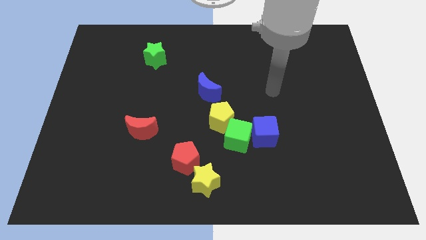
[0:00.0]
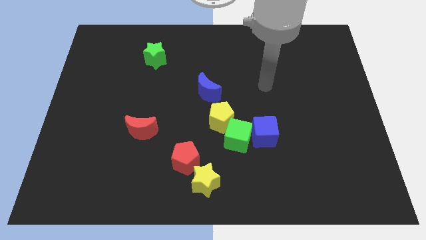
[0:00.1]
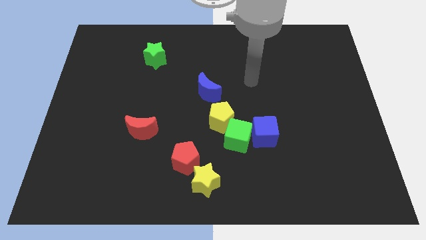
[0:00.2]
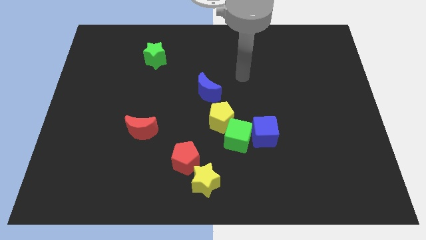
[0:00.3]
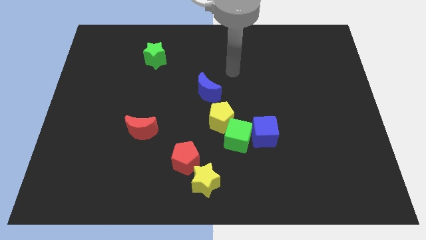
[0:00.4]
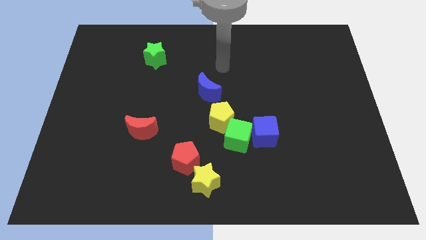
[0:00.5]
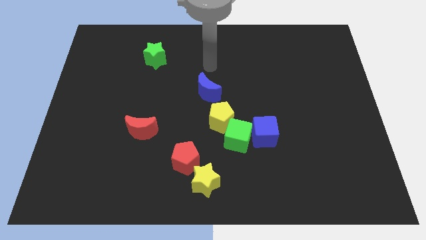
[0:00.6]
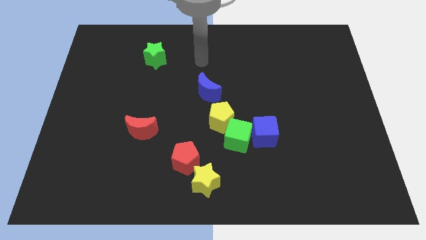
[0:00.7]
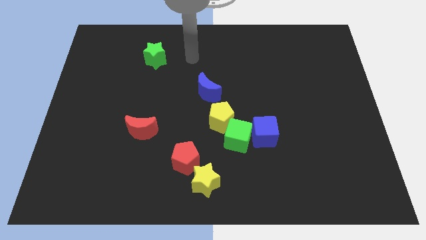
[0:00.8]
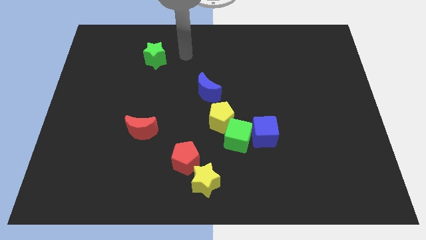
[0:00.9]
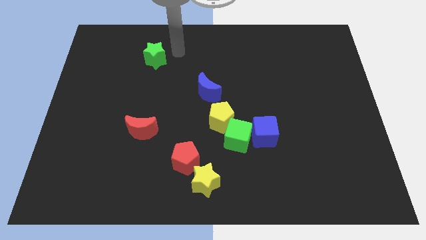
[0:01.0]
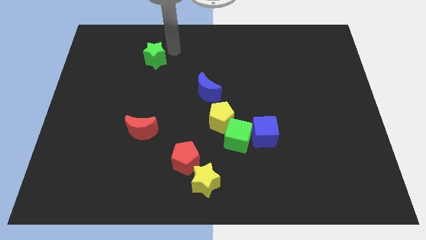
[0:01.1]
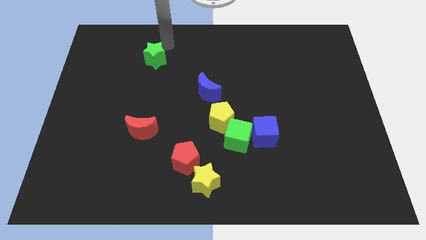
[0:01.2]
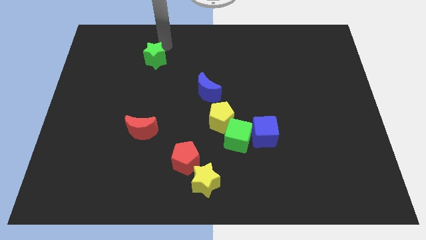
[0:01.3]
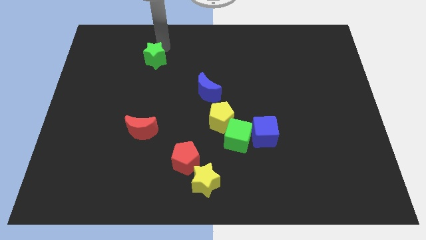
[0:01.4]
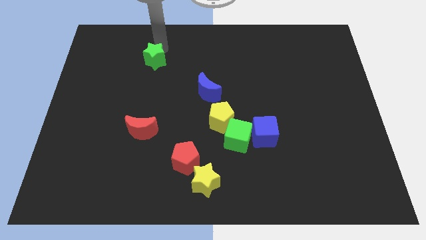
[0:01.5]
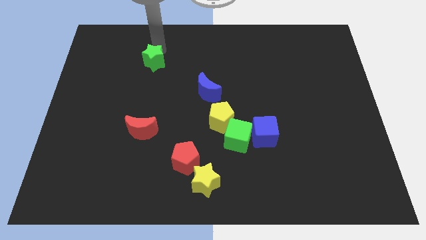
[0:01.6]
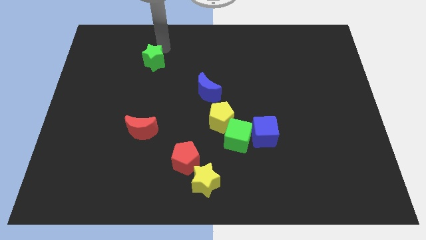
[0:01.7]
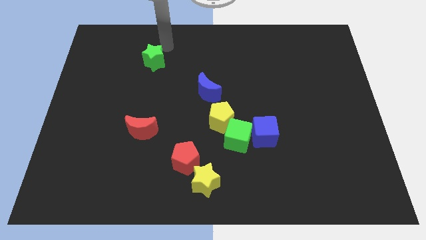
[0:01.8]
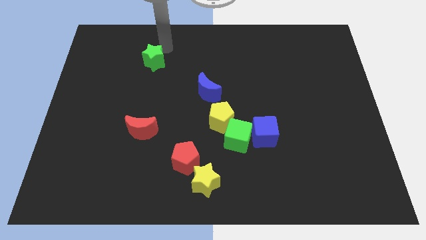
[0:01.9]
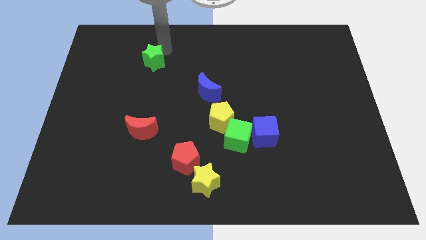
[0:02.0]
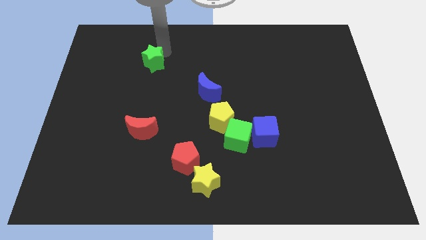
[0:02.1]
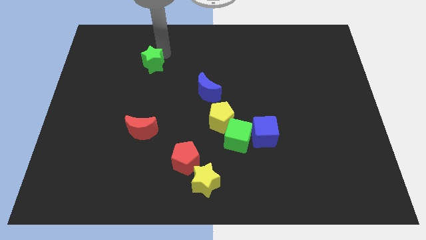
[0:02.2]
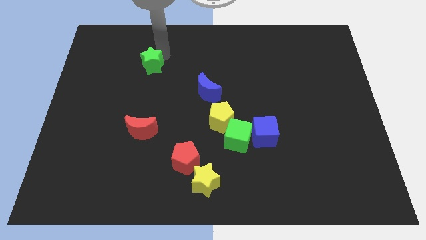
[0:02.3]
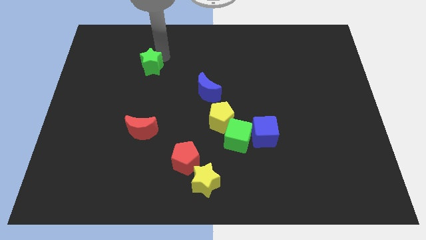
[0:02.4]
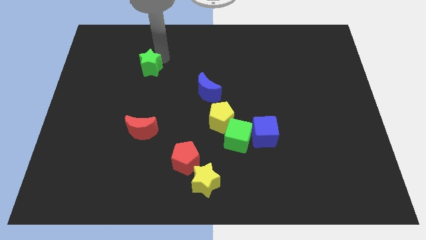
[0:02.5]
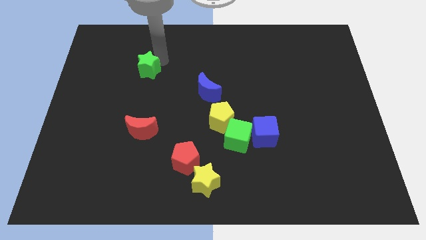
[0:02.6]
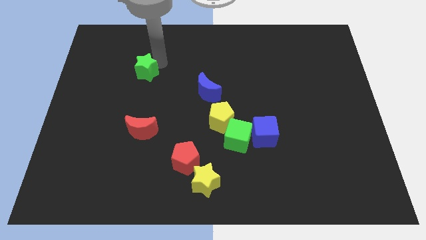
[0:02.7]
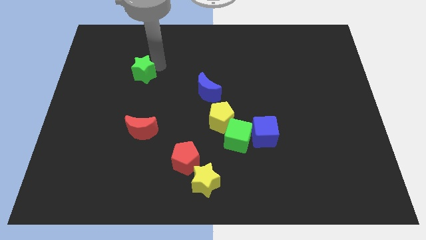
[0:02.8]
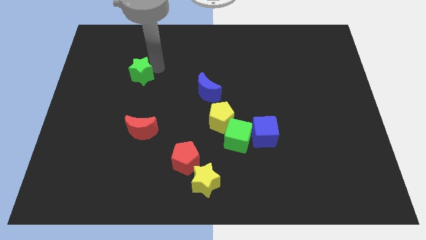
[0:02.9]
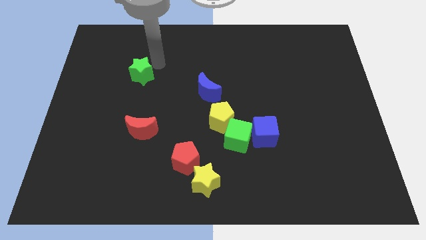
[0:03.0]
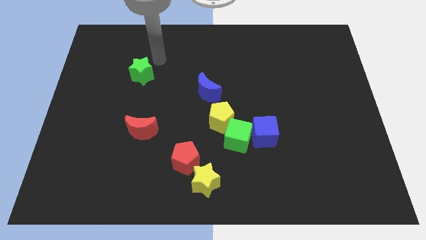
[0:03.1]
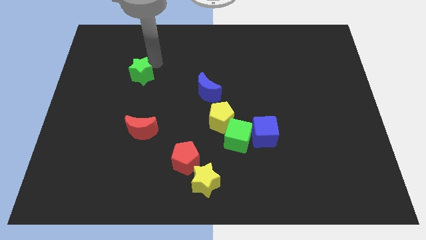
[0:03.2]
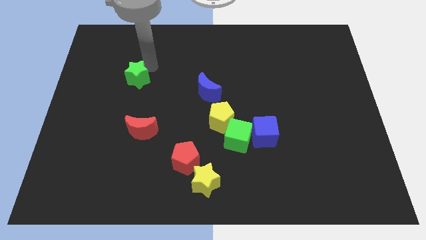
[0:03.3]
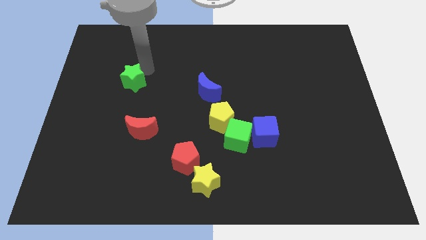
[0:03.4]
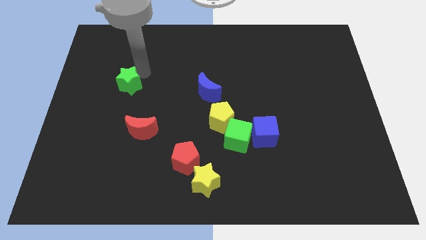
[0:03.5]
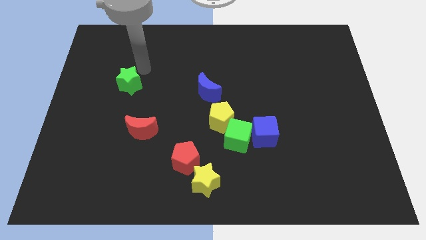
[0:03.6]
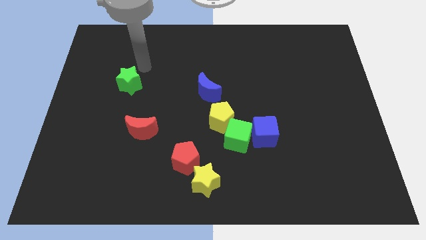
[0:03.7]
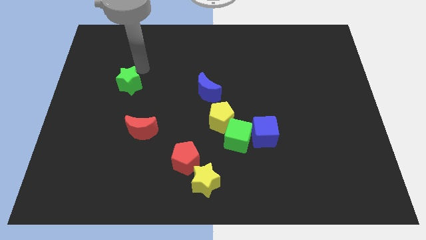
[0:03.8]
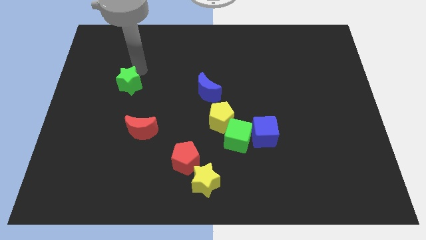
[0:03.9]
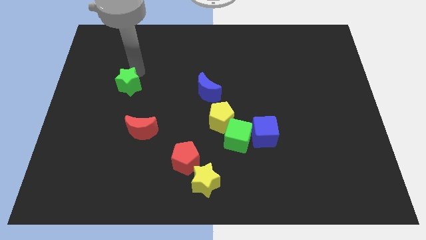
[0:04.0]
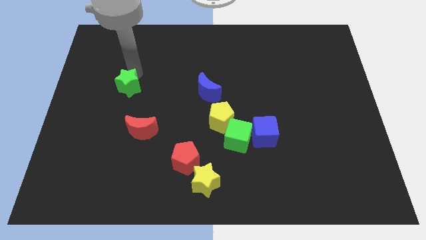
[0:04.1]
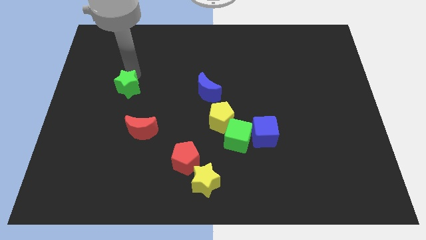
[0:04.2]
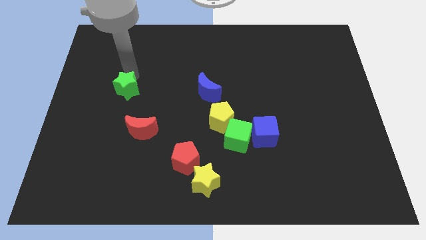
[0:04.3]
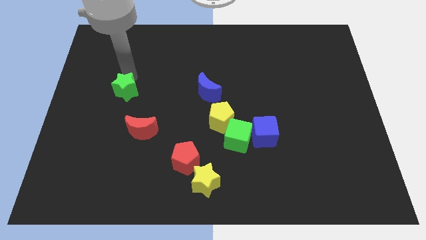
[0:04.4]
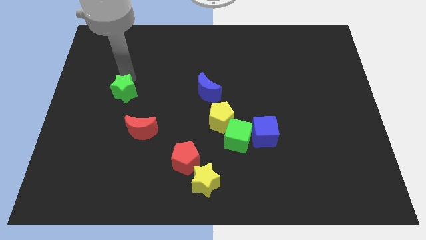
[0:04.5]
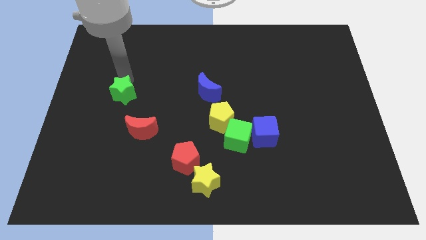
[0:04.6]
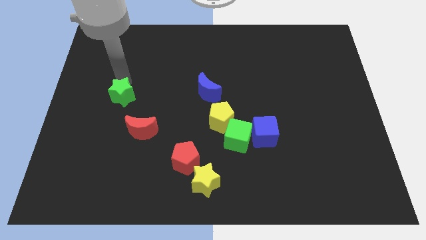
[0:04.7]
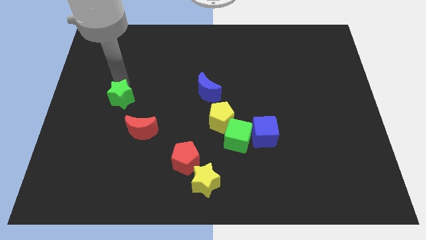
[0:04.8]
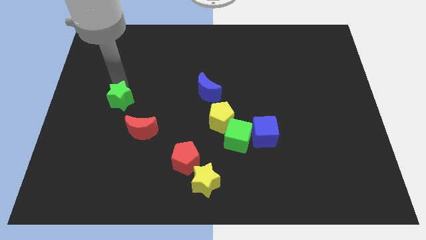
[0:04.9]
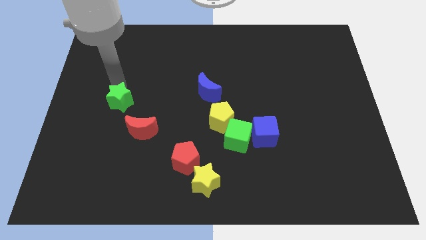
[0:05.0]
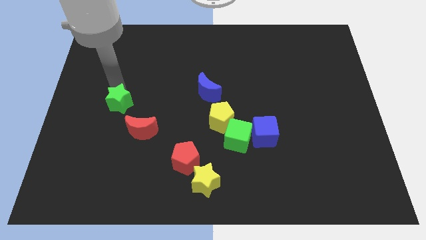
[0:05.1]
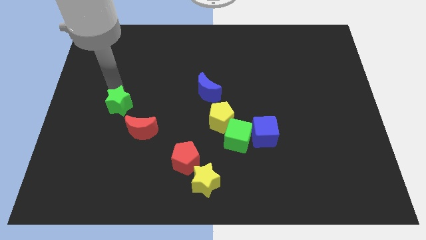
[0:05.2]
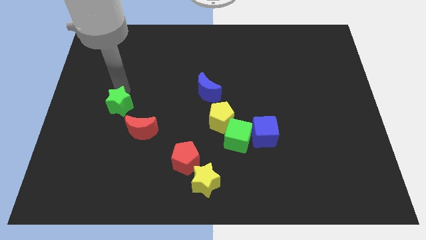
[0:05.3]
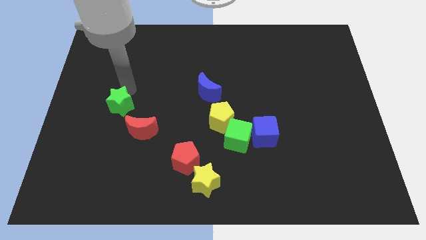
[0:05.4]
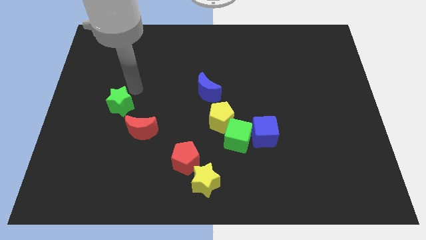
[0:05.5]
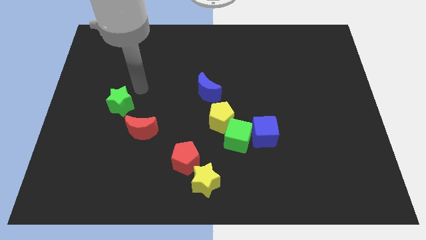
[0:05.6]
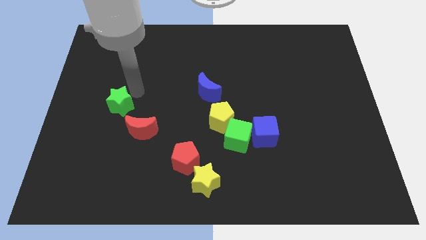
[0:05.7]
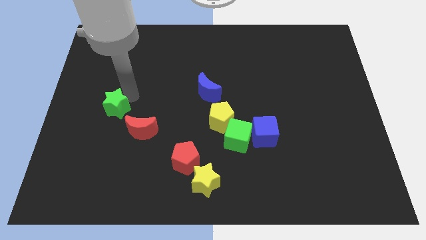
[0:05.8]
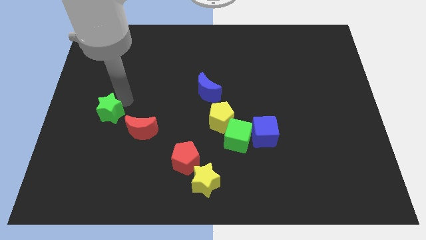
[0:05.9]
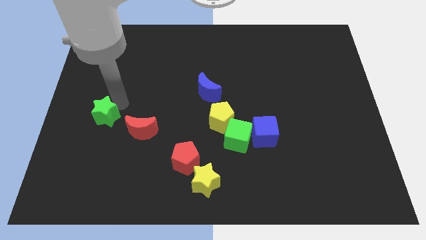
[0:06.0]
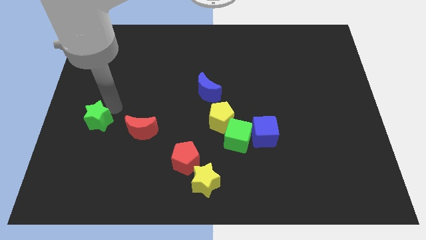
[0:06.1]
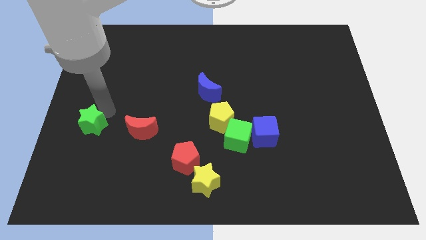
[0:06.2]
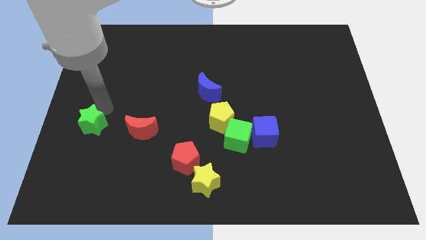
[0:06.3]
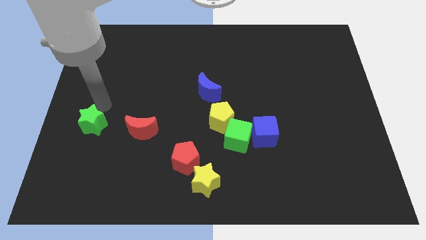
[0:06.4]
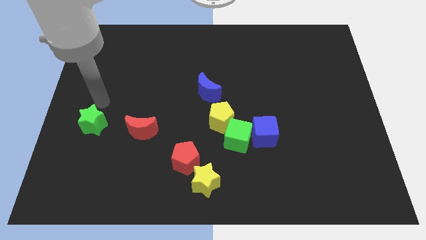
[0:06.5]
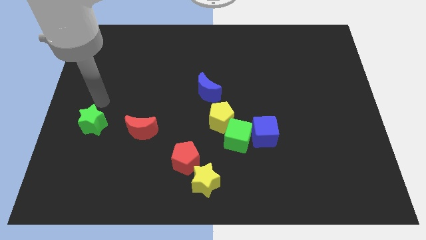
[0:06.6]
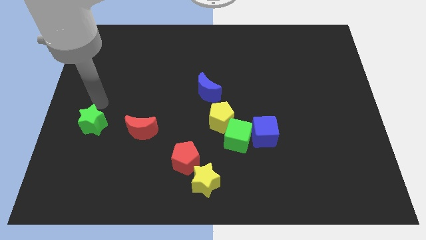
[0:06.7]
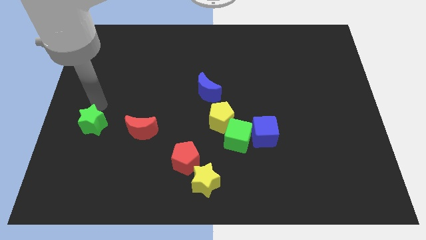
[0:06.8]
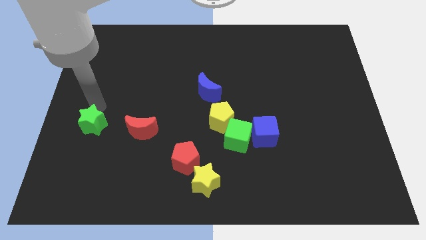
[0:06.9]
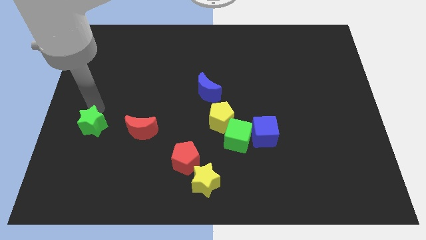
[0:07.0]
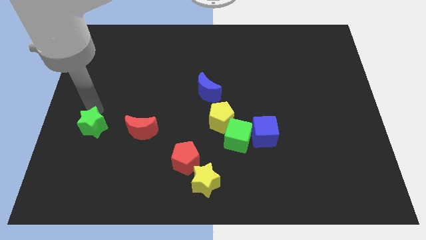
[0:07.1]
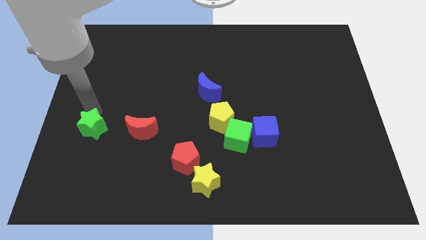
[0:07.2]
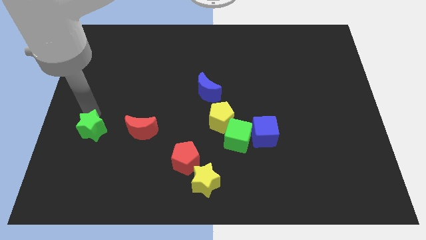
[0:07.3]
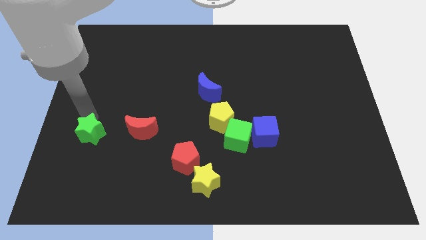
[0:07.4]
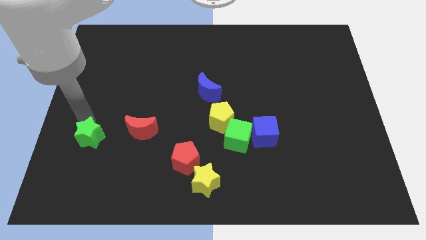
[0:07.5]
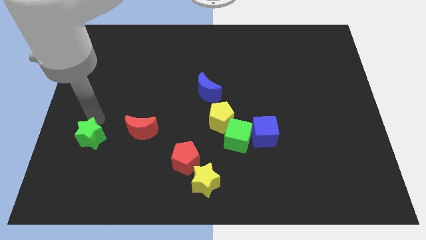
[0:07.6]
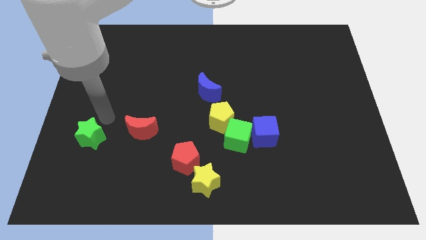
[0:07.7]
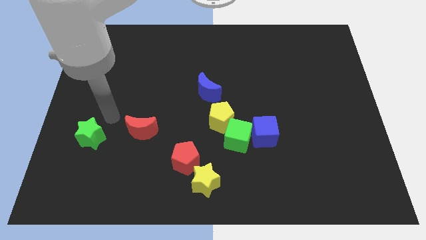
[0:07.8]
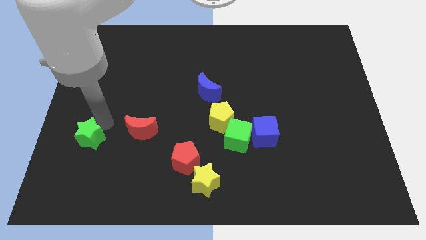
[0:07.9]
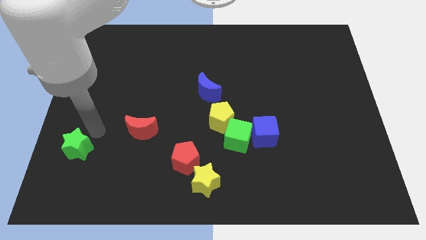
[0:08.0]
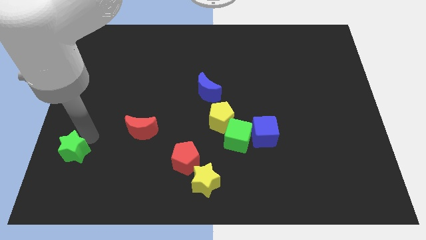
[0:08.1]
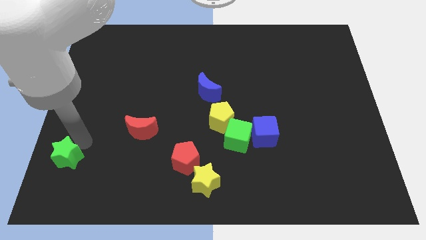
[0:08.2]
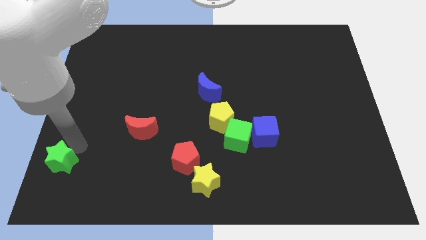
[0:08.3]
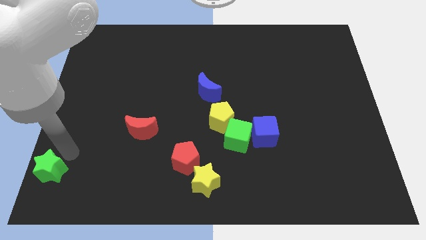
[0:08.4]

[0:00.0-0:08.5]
move the green star to the lower left corner
